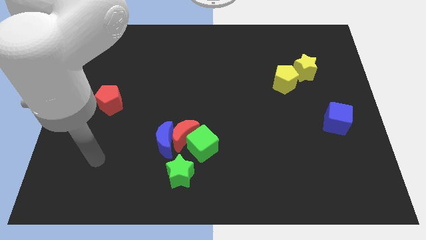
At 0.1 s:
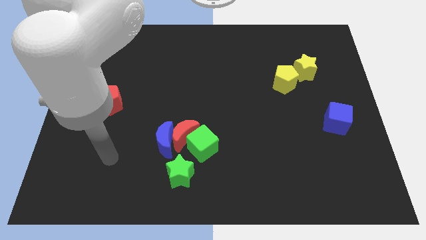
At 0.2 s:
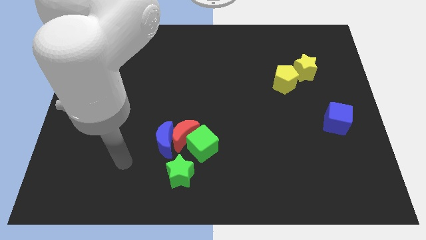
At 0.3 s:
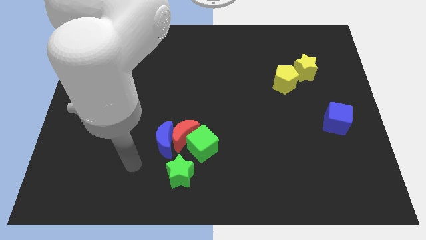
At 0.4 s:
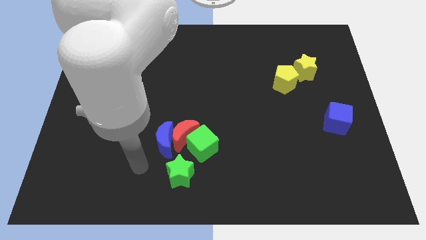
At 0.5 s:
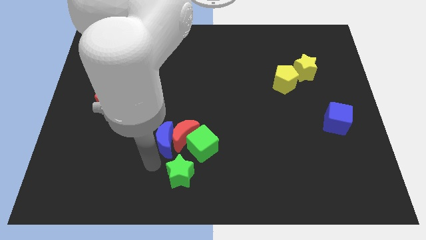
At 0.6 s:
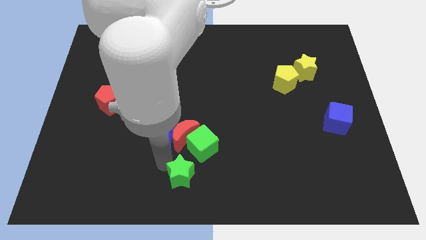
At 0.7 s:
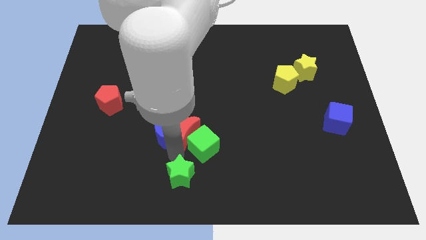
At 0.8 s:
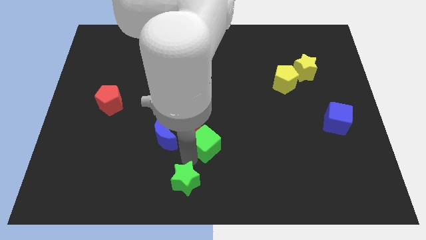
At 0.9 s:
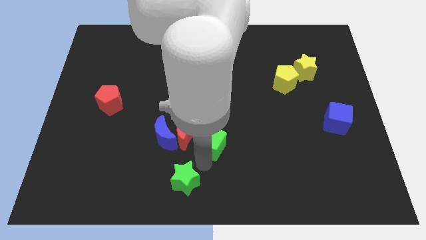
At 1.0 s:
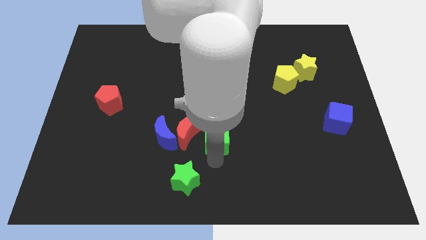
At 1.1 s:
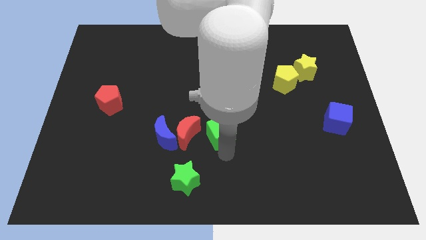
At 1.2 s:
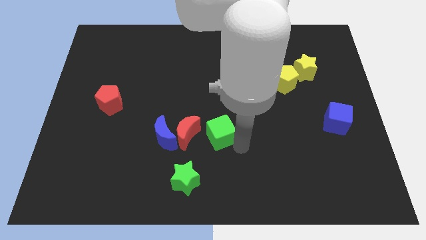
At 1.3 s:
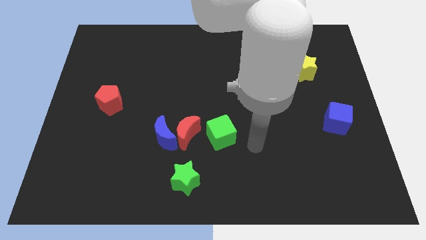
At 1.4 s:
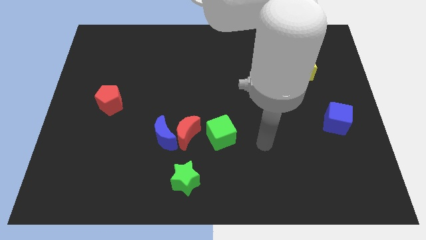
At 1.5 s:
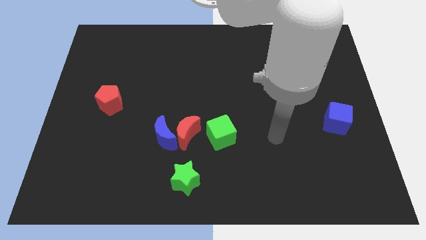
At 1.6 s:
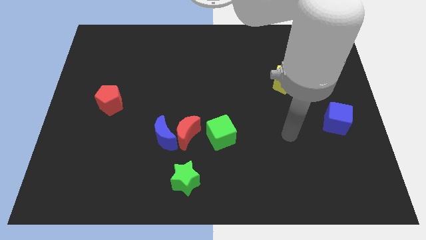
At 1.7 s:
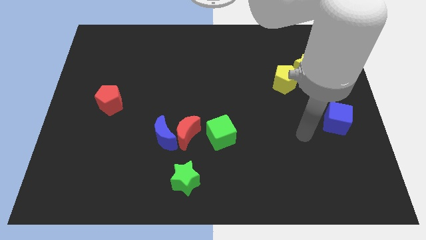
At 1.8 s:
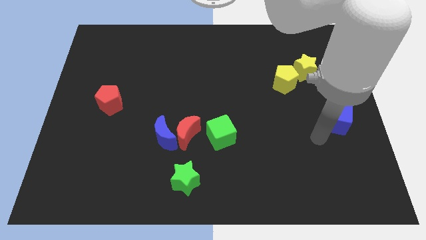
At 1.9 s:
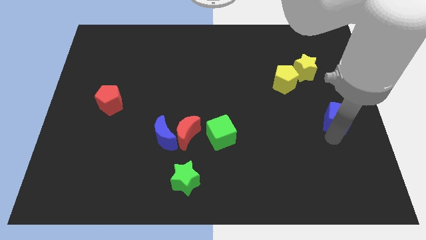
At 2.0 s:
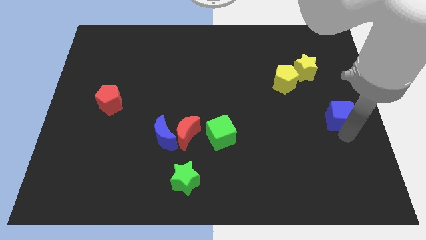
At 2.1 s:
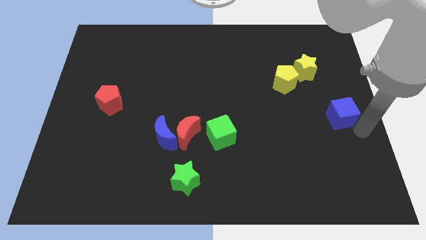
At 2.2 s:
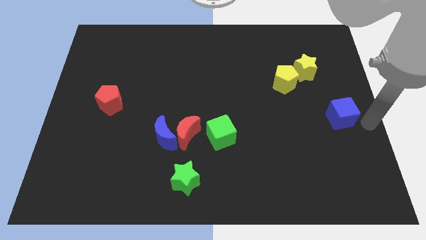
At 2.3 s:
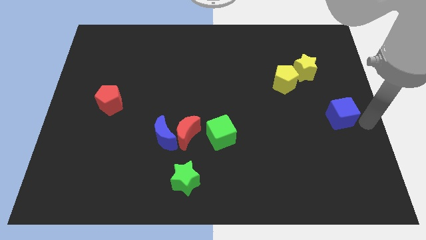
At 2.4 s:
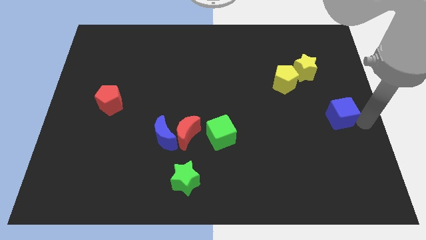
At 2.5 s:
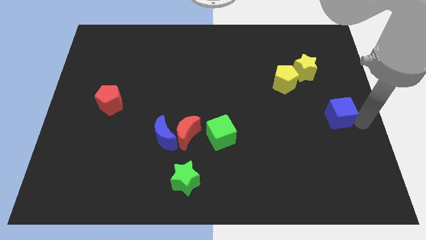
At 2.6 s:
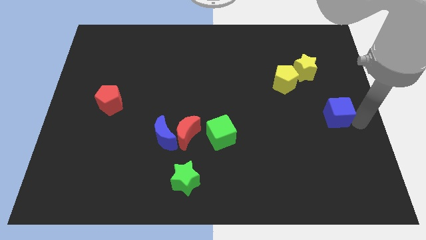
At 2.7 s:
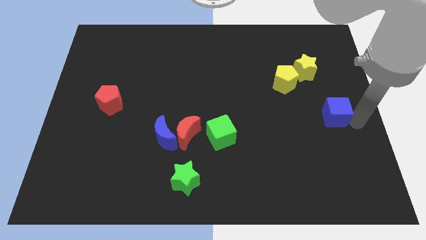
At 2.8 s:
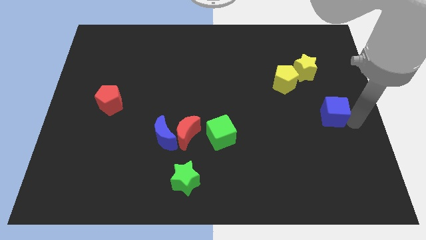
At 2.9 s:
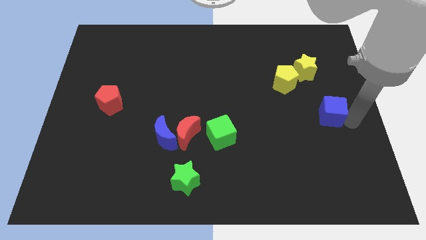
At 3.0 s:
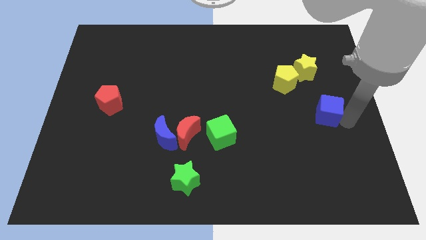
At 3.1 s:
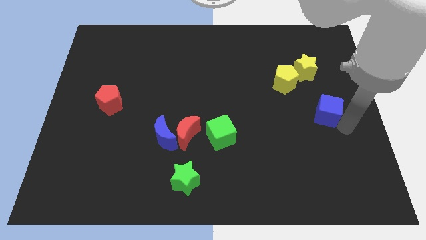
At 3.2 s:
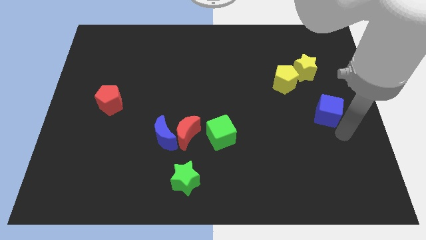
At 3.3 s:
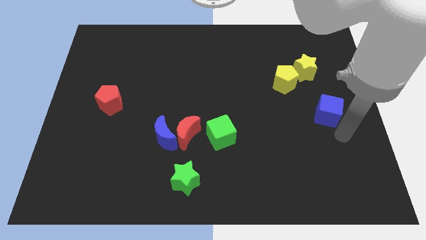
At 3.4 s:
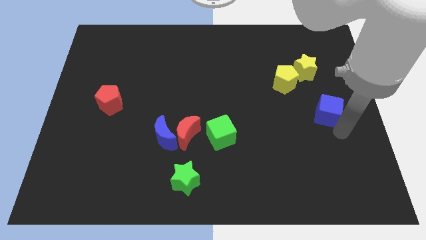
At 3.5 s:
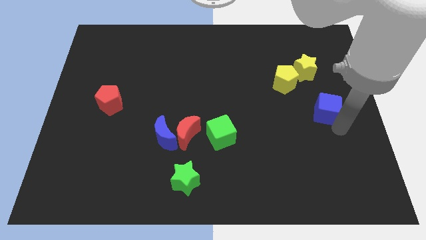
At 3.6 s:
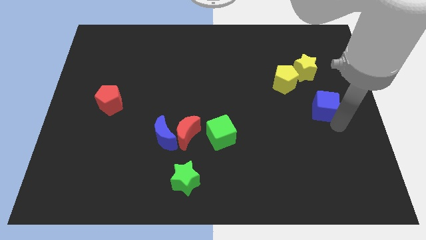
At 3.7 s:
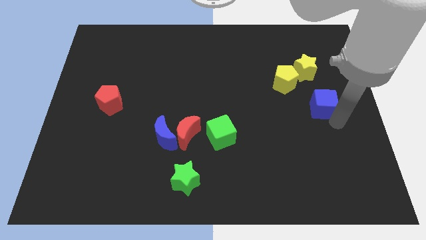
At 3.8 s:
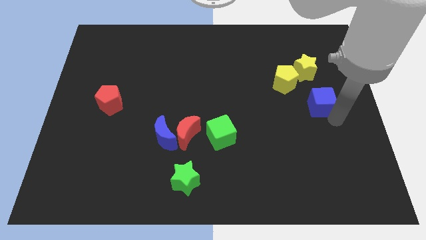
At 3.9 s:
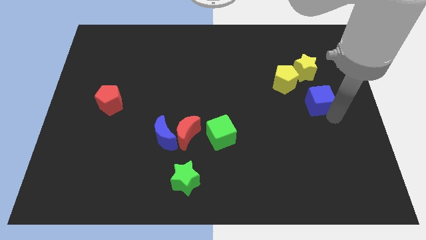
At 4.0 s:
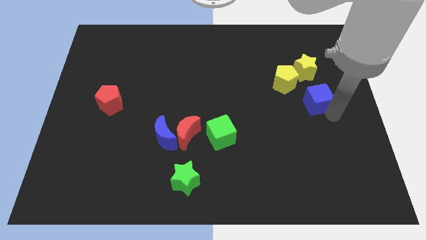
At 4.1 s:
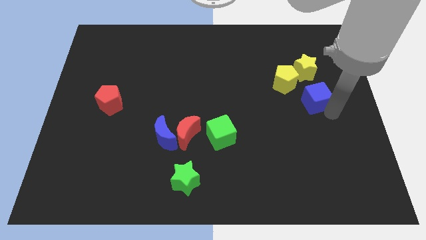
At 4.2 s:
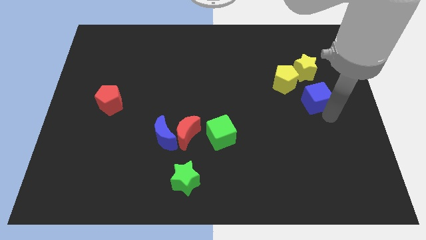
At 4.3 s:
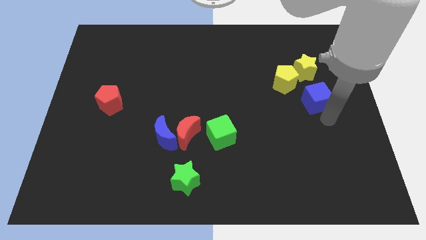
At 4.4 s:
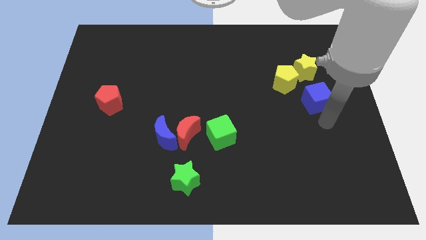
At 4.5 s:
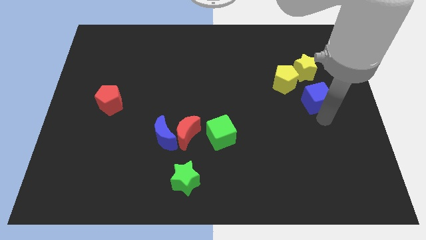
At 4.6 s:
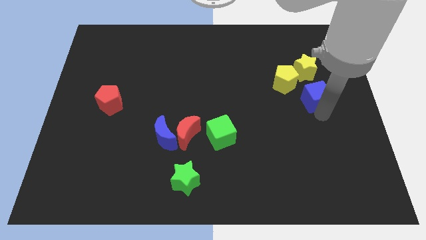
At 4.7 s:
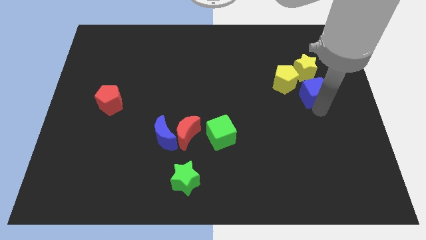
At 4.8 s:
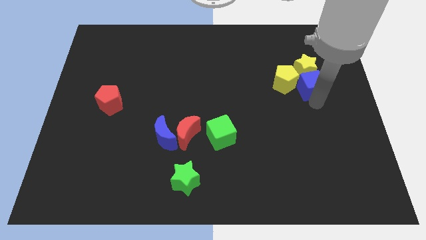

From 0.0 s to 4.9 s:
slide the blue cube towards the yellow star

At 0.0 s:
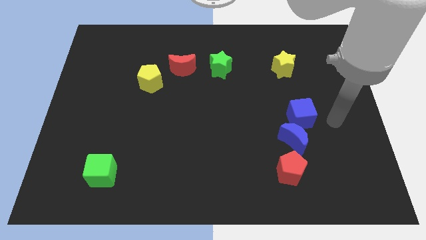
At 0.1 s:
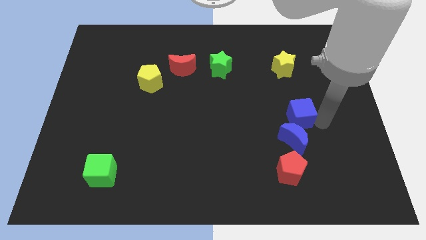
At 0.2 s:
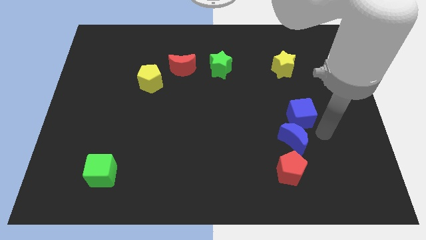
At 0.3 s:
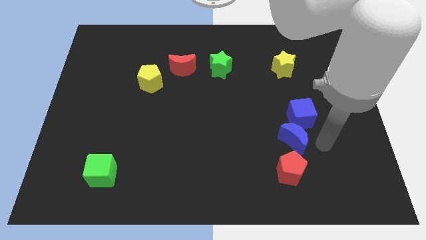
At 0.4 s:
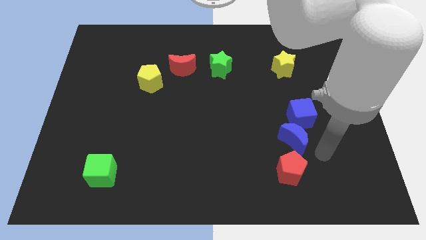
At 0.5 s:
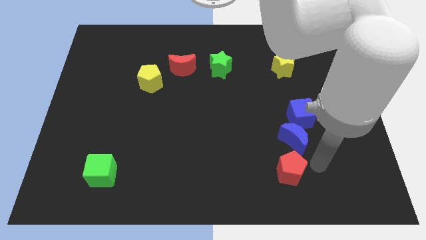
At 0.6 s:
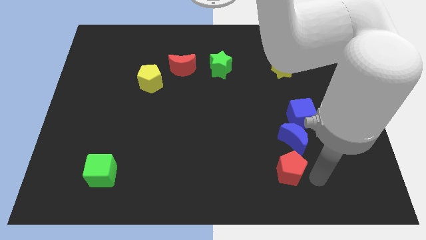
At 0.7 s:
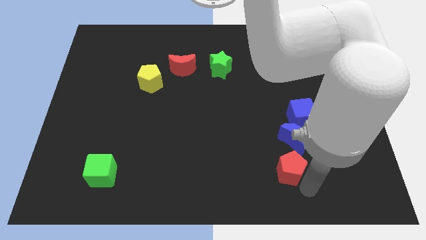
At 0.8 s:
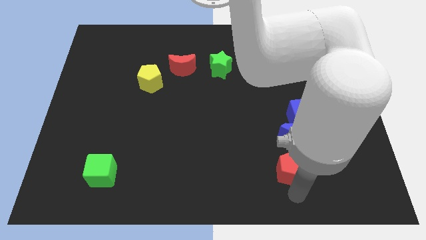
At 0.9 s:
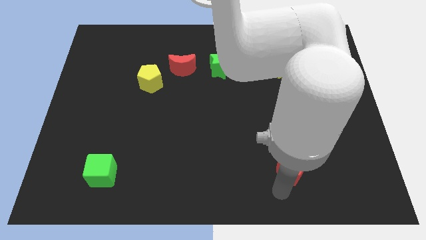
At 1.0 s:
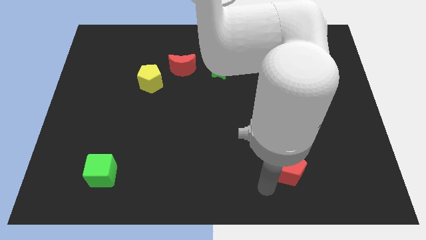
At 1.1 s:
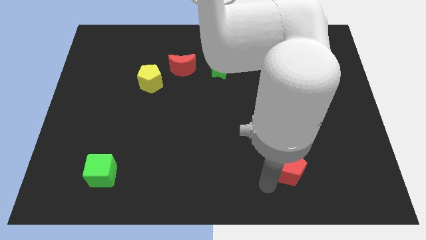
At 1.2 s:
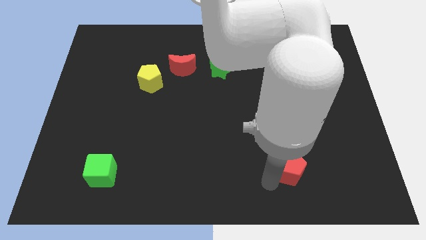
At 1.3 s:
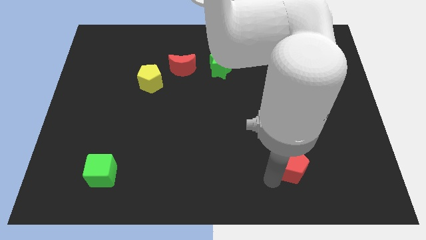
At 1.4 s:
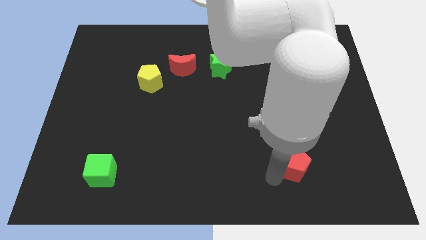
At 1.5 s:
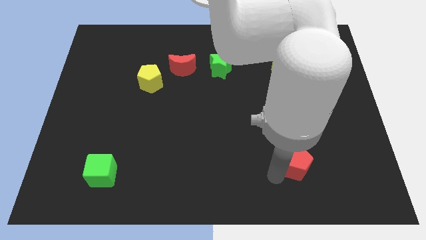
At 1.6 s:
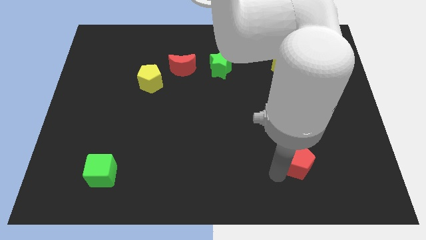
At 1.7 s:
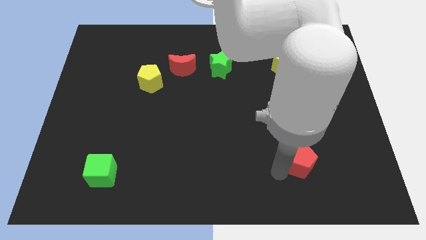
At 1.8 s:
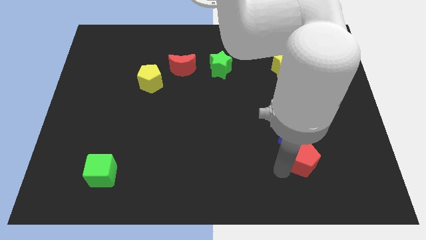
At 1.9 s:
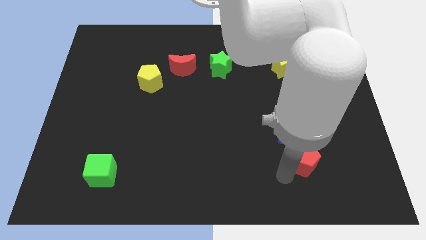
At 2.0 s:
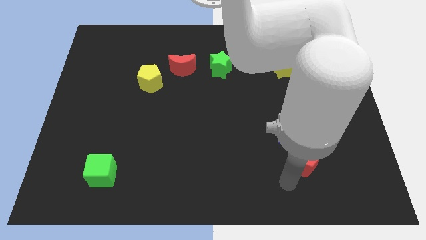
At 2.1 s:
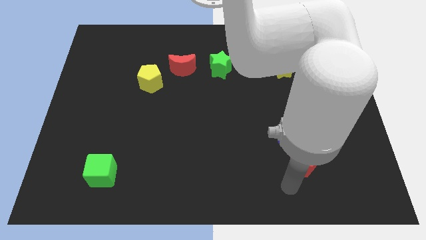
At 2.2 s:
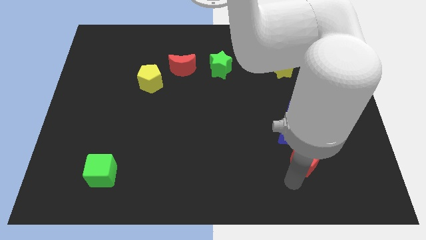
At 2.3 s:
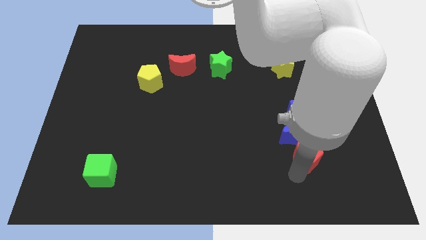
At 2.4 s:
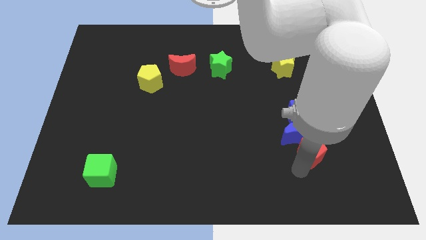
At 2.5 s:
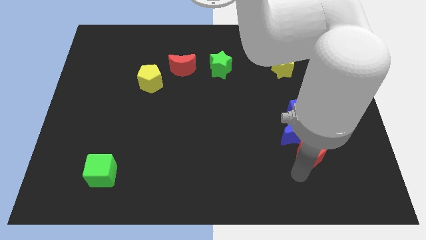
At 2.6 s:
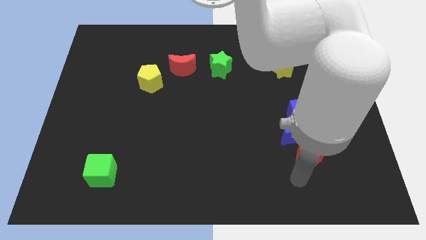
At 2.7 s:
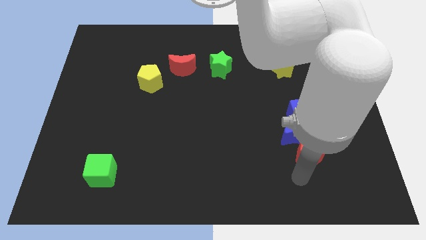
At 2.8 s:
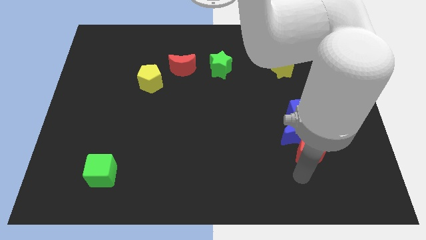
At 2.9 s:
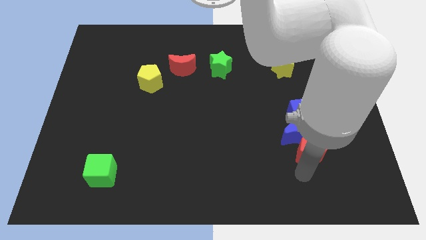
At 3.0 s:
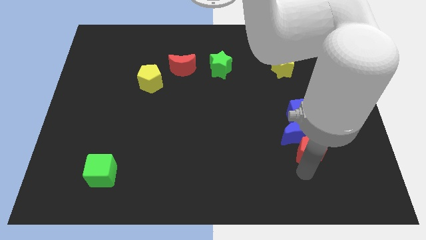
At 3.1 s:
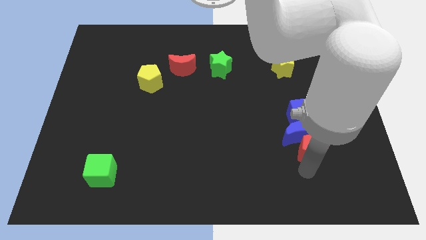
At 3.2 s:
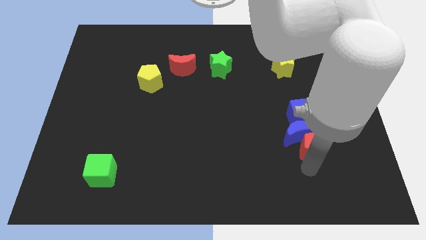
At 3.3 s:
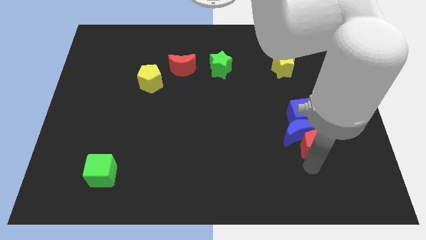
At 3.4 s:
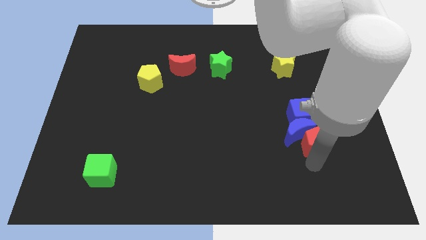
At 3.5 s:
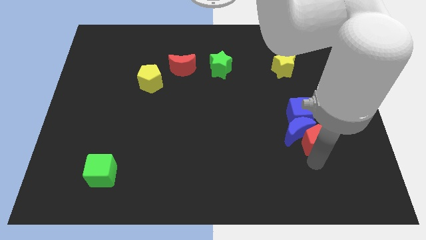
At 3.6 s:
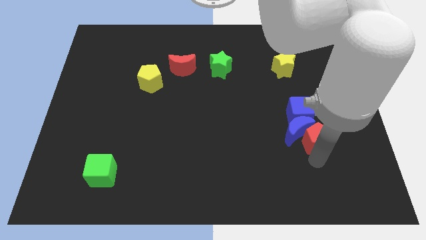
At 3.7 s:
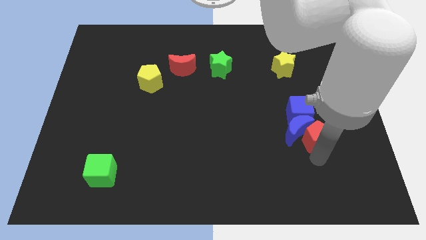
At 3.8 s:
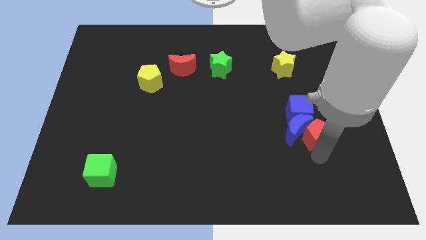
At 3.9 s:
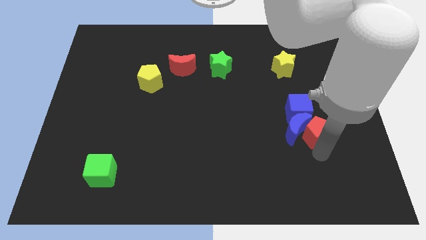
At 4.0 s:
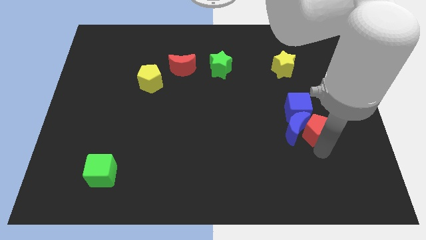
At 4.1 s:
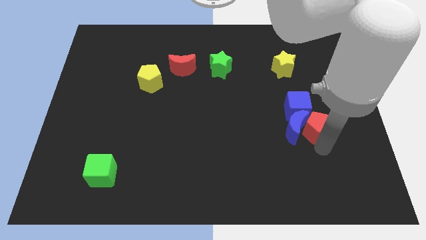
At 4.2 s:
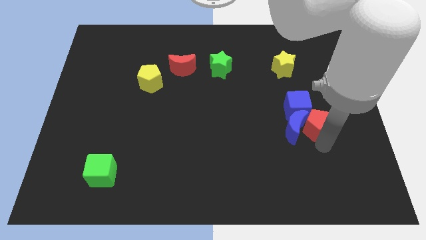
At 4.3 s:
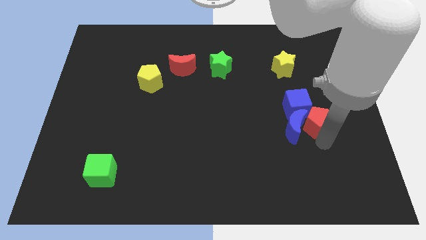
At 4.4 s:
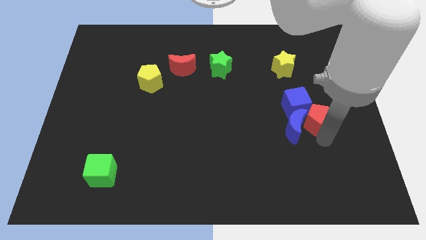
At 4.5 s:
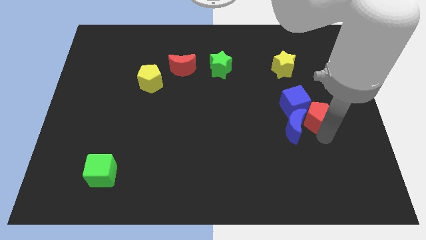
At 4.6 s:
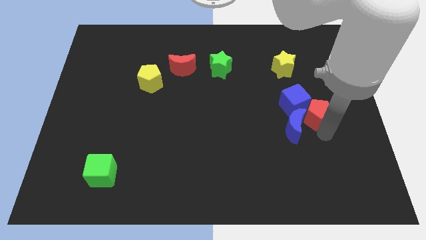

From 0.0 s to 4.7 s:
put the red pentagon next to the blue cube
